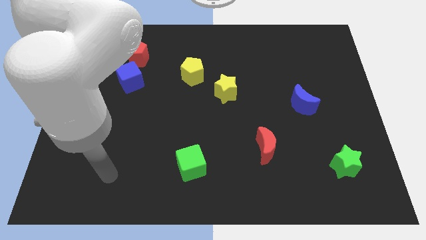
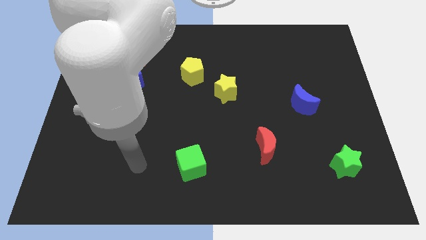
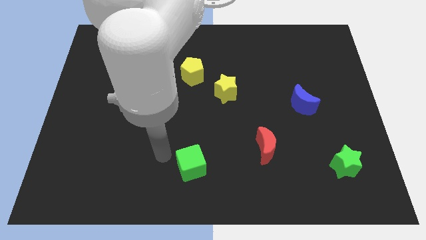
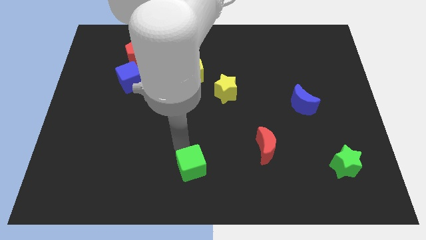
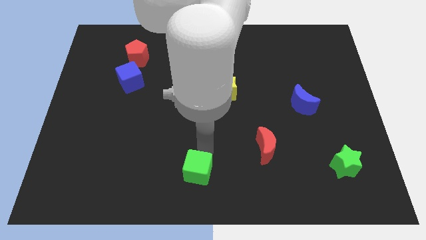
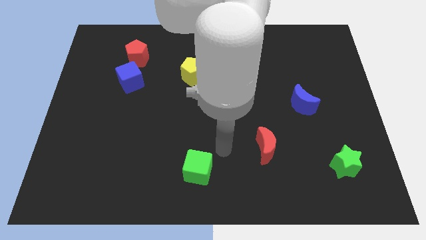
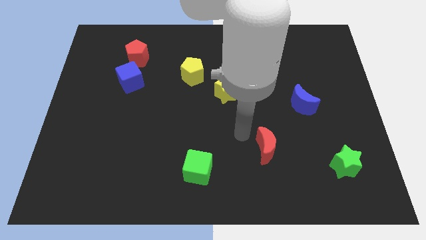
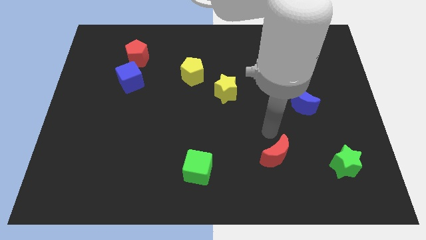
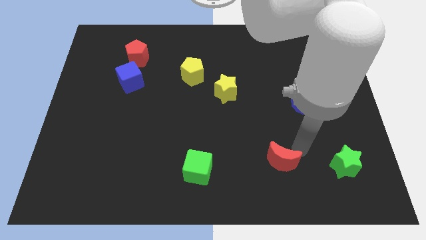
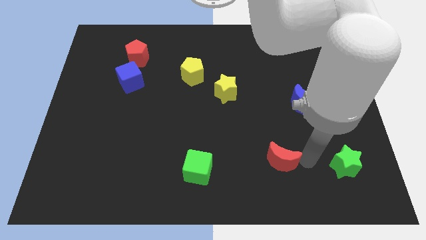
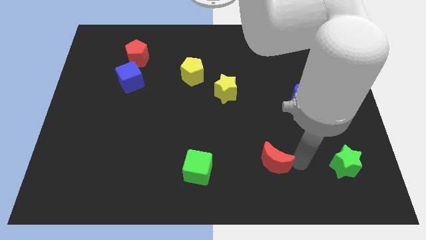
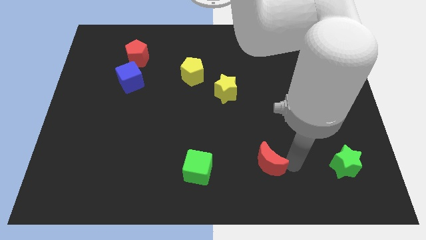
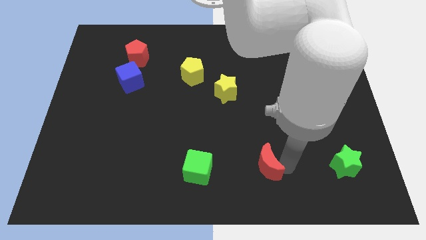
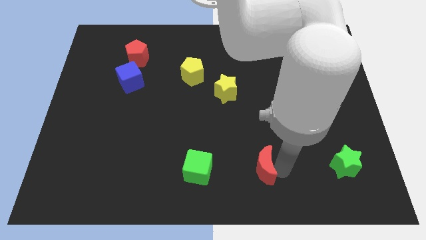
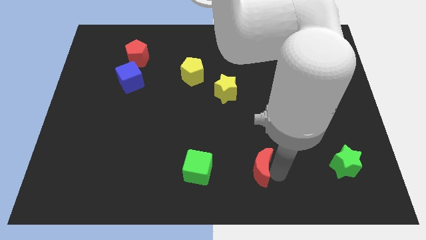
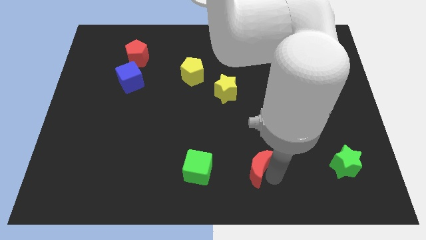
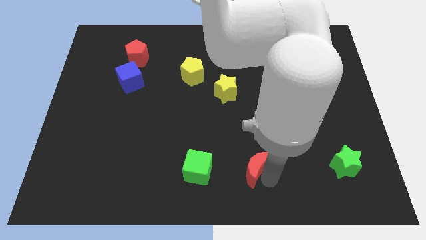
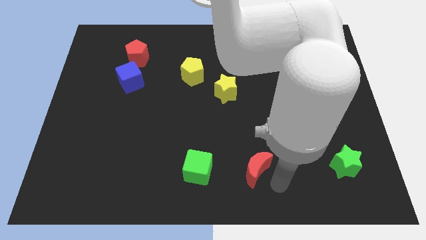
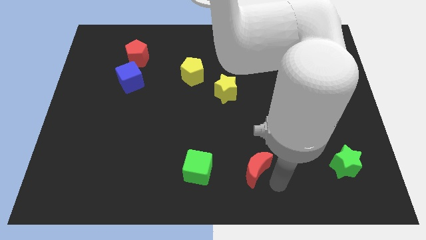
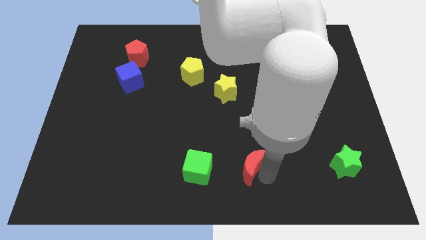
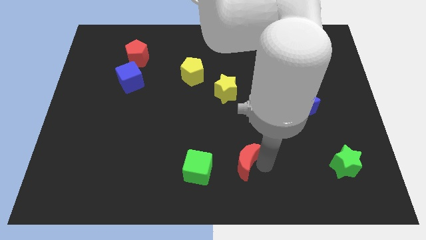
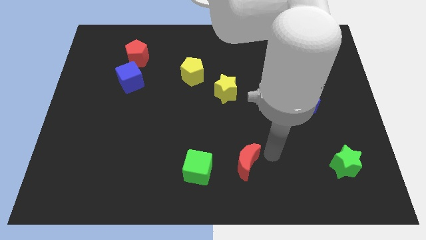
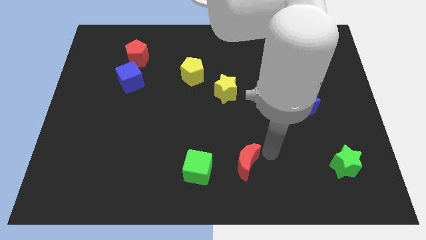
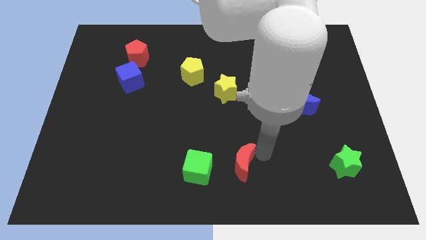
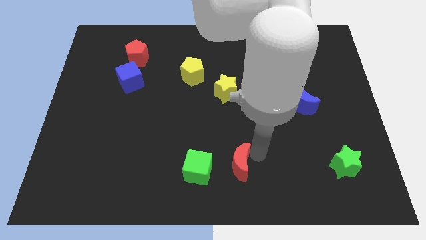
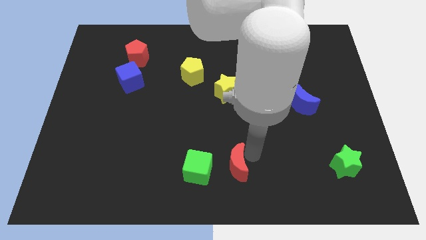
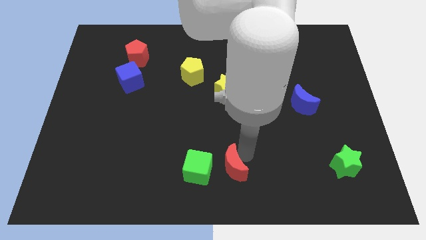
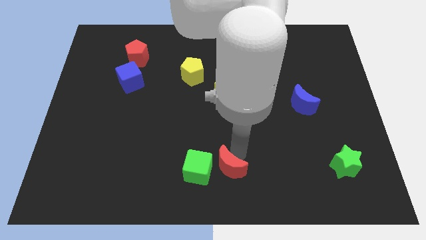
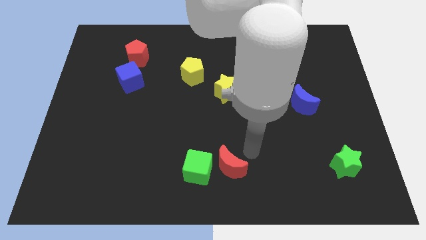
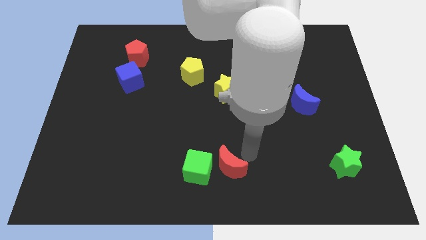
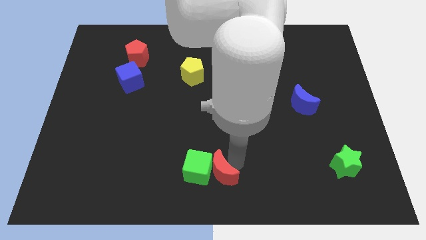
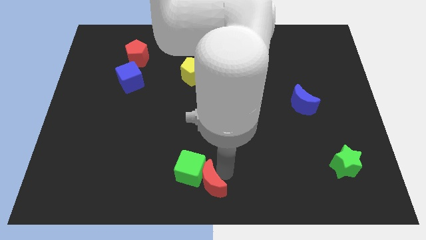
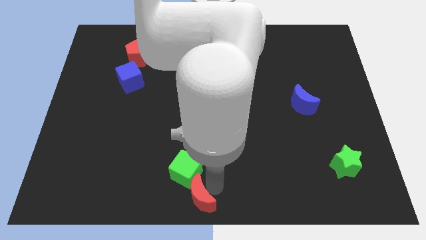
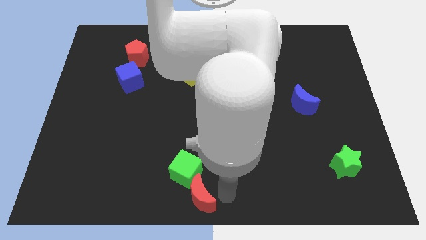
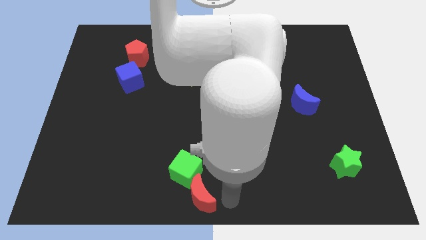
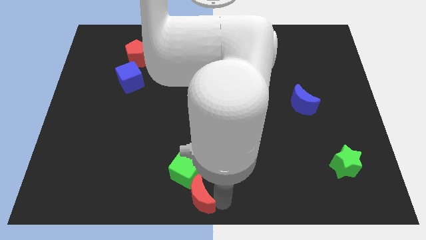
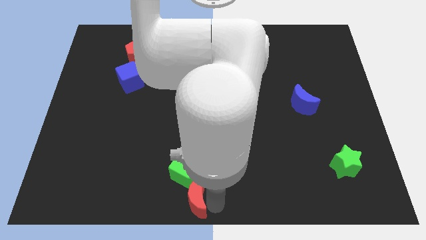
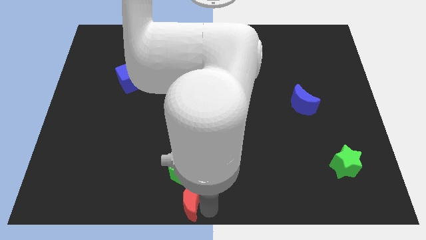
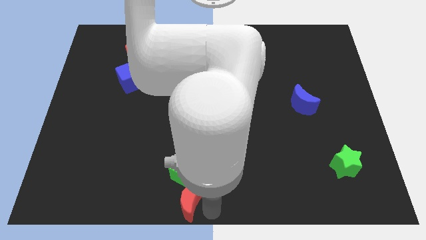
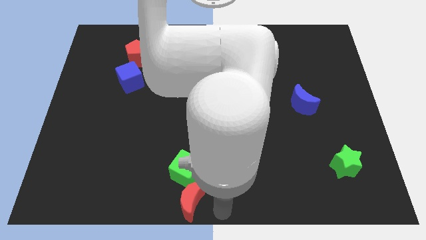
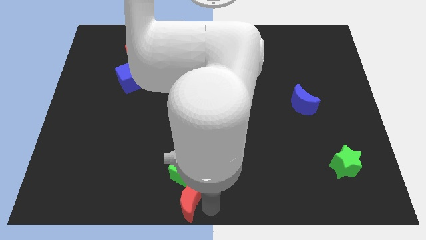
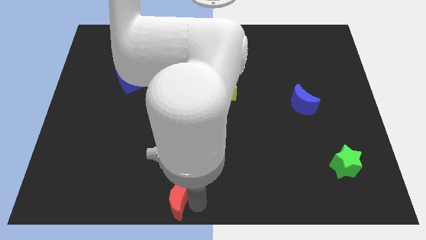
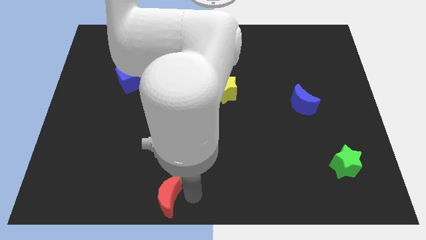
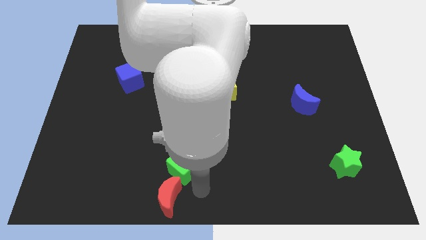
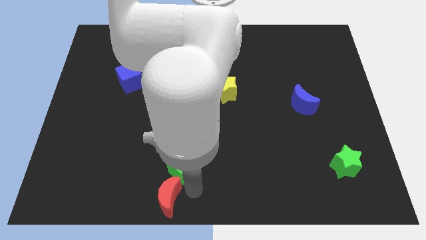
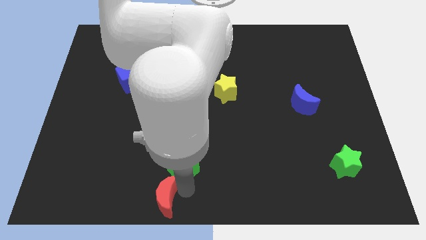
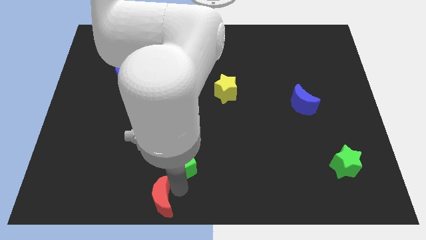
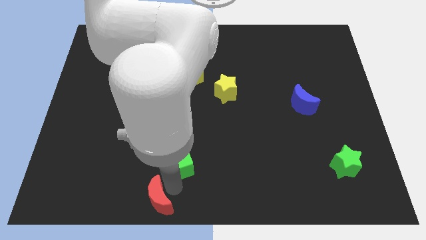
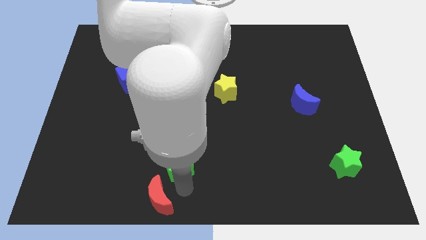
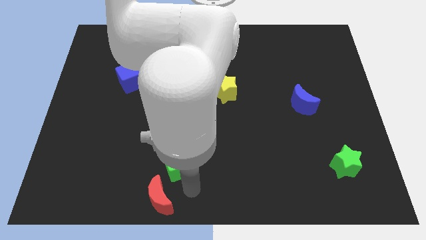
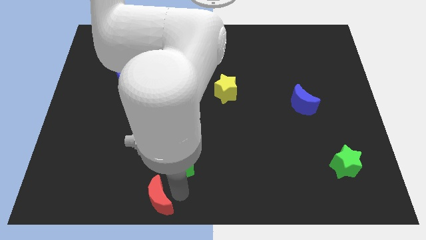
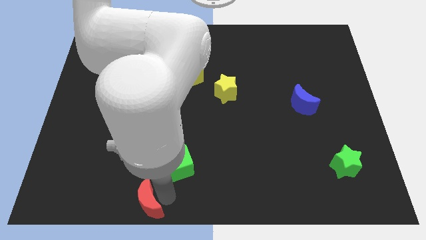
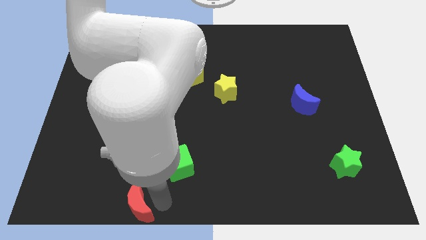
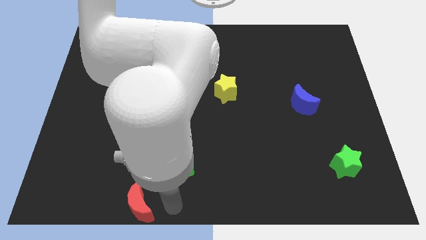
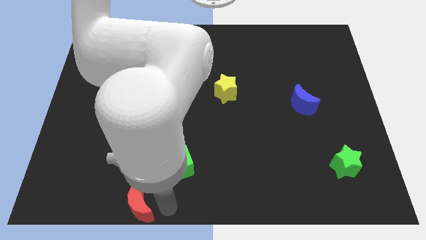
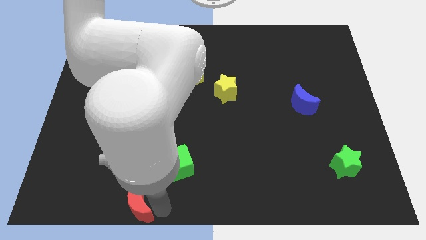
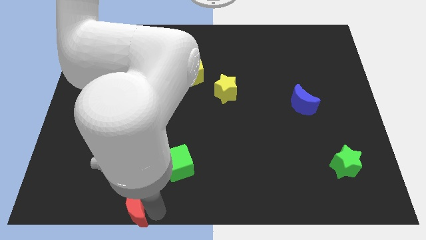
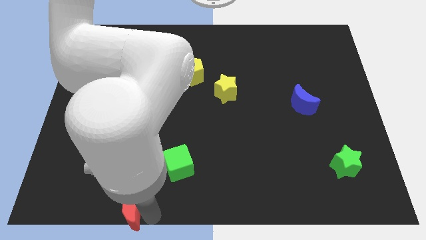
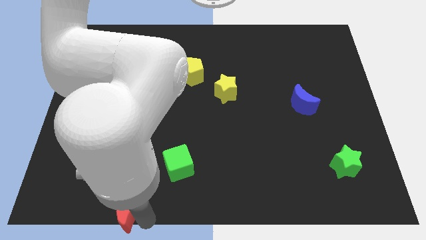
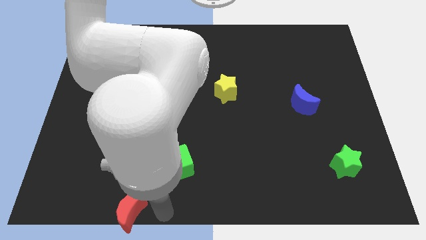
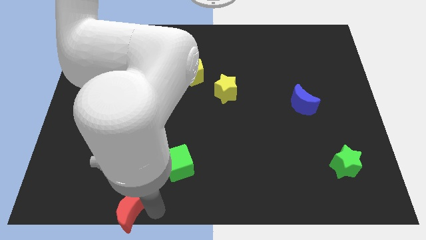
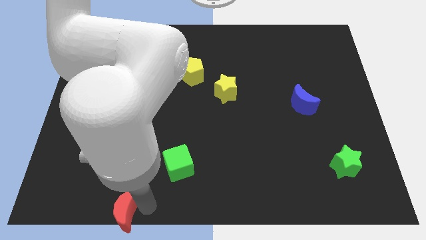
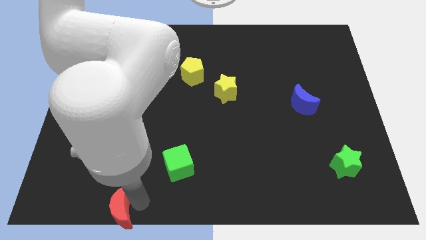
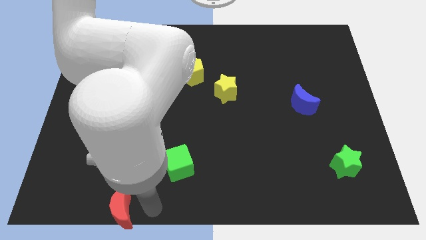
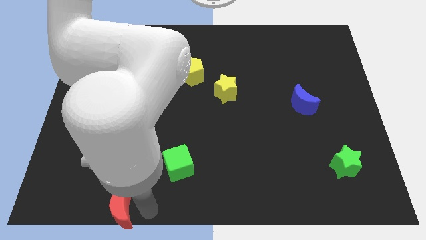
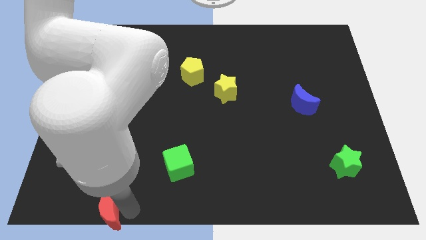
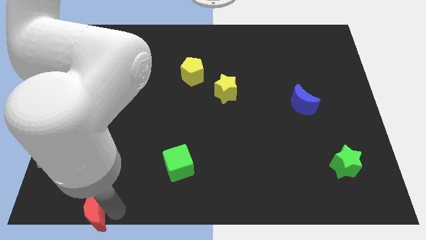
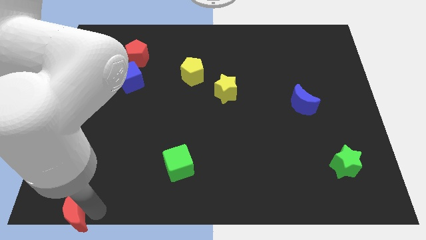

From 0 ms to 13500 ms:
slide the red moon to the bottom left corner
